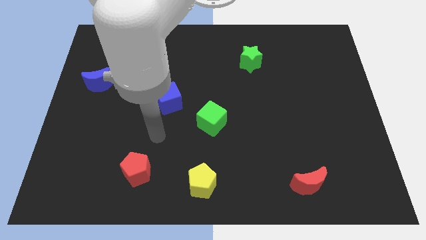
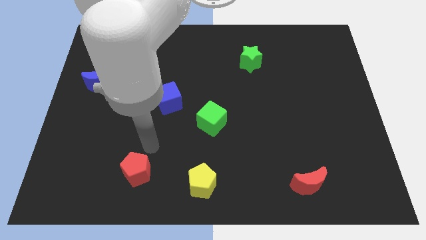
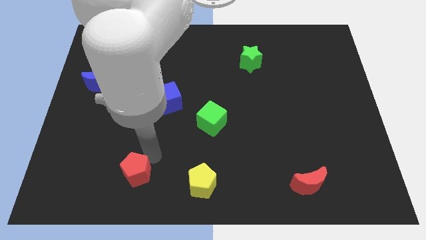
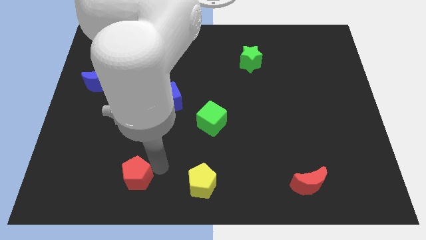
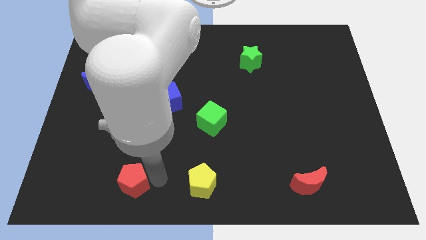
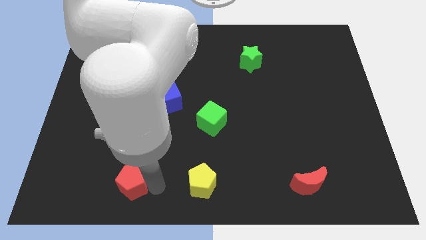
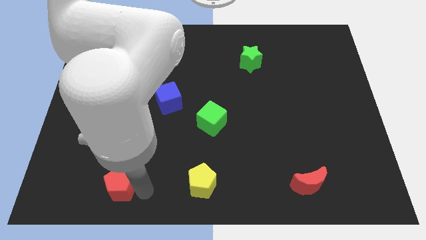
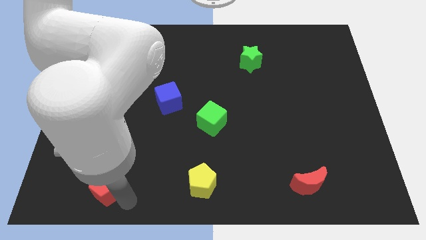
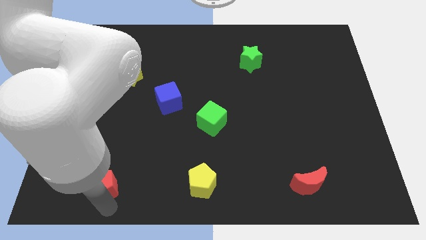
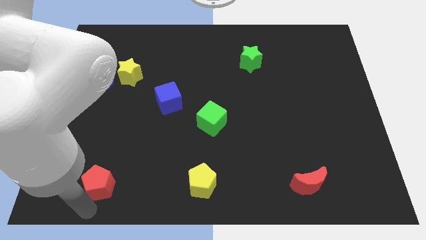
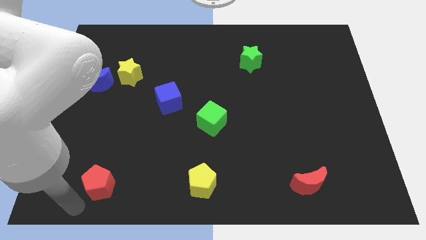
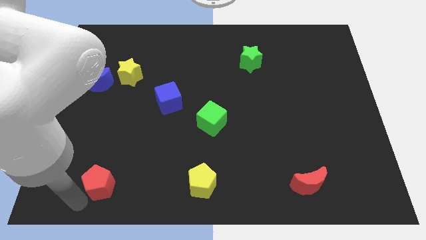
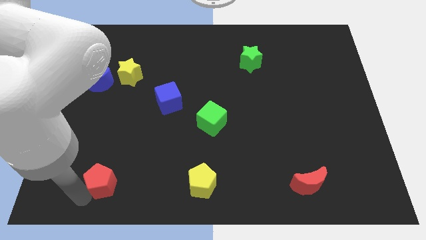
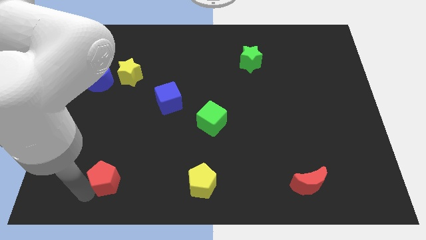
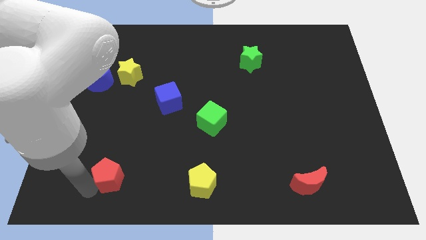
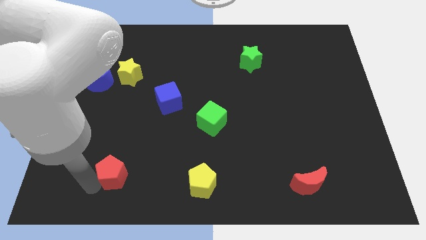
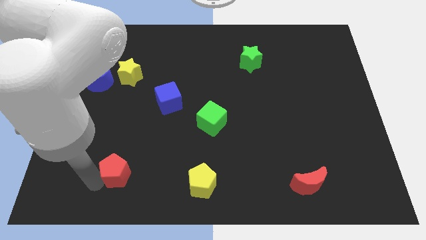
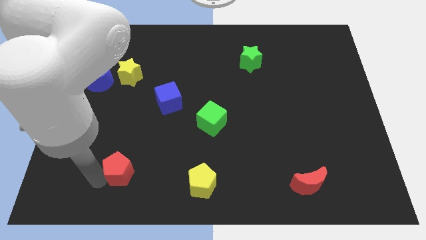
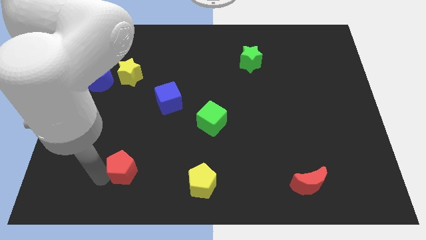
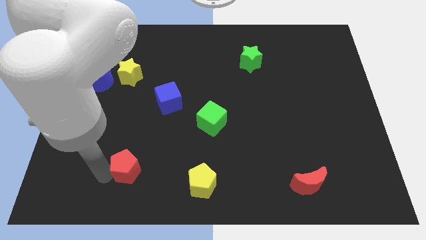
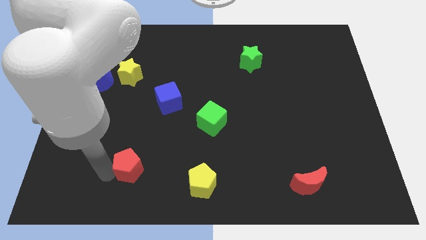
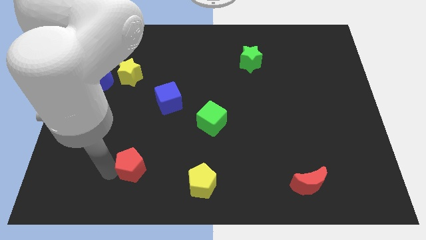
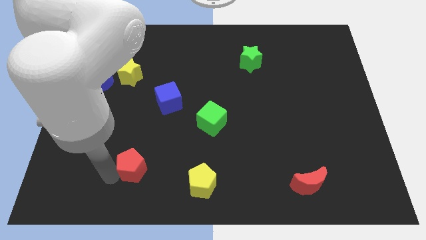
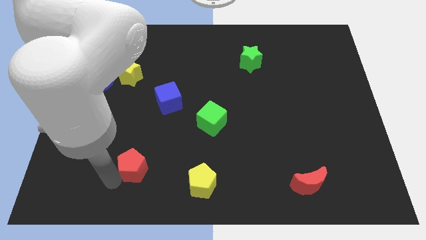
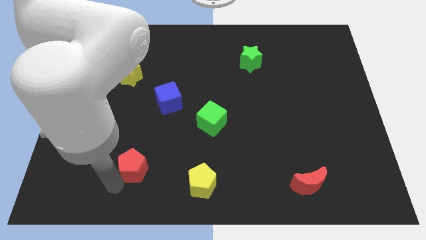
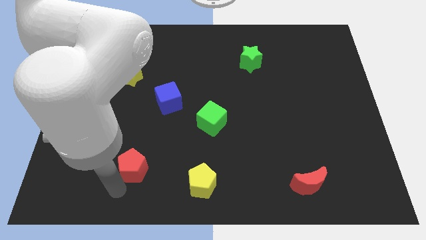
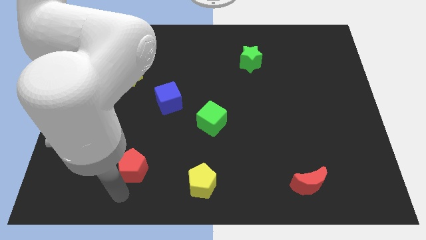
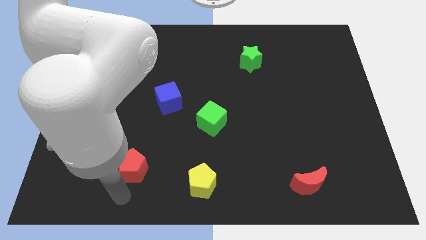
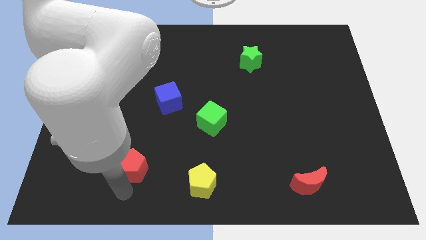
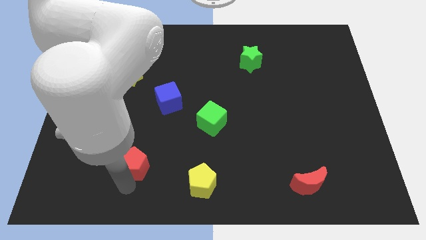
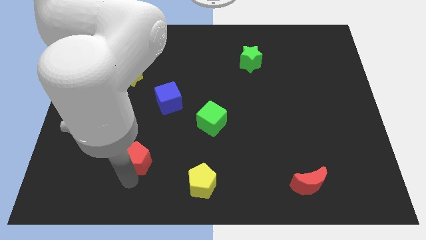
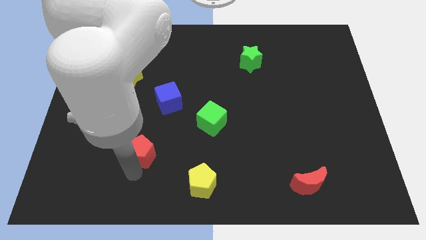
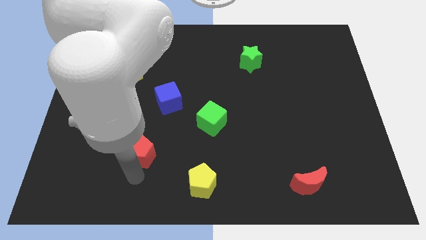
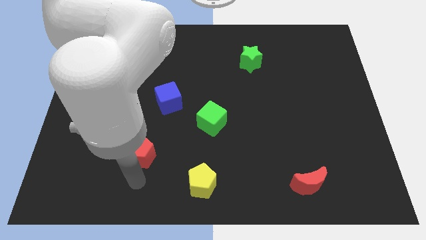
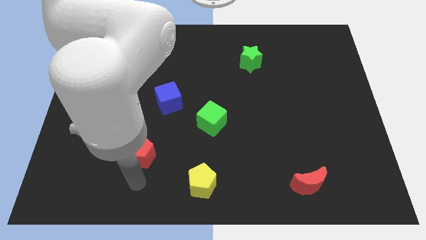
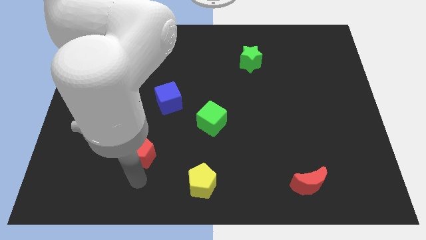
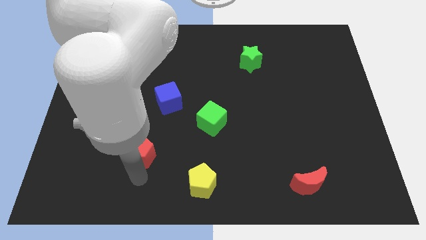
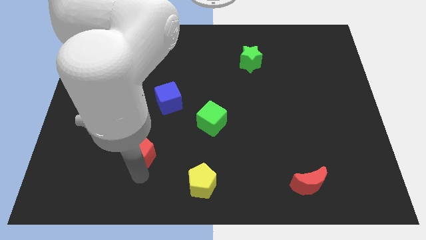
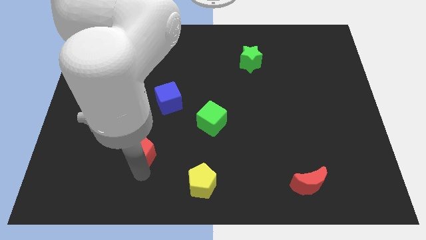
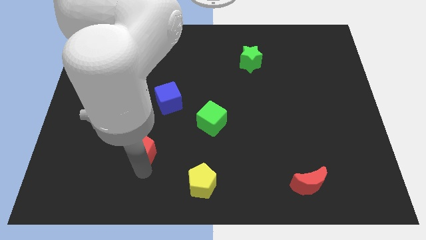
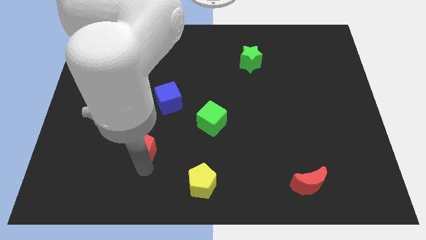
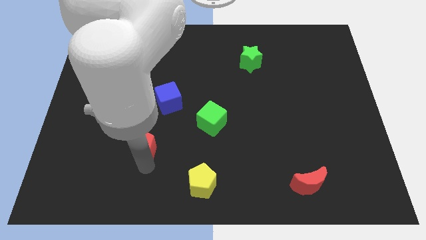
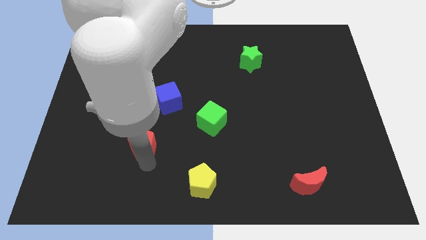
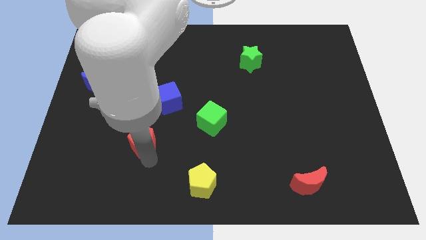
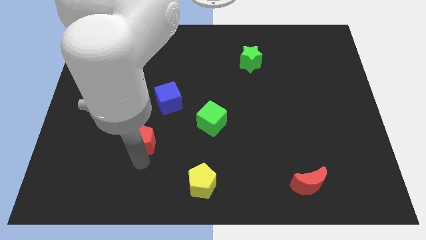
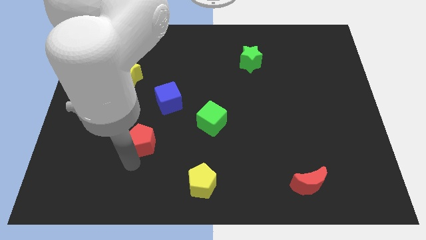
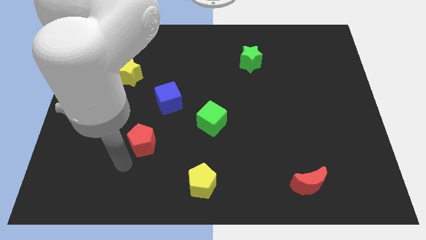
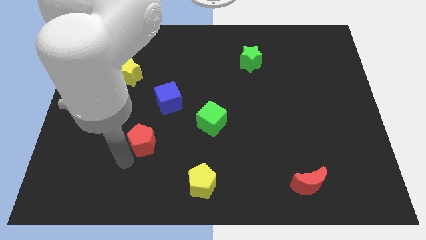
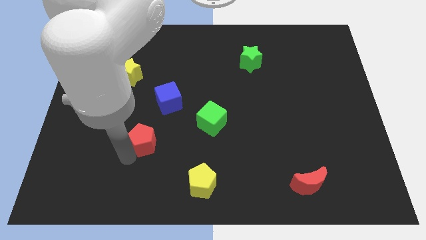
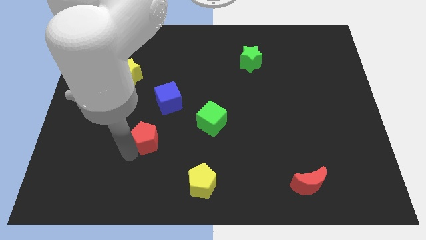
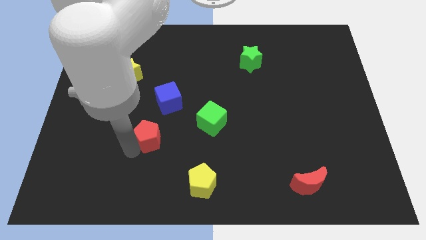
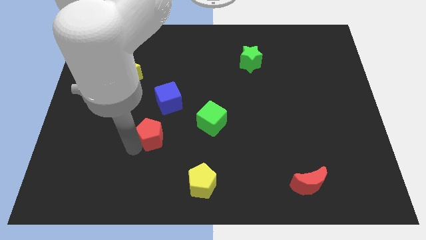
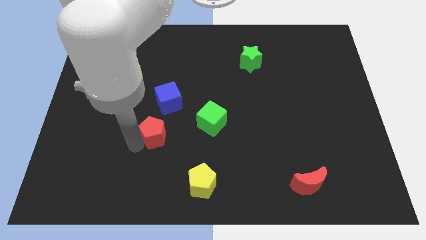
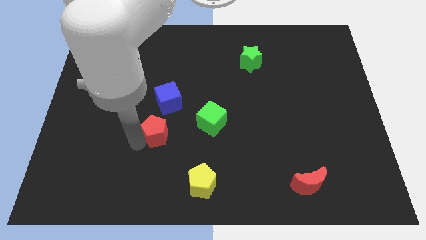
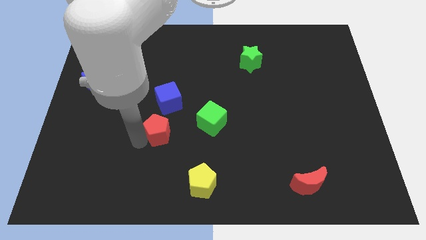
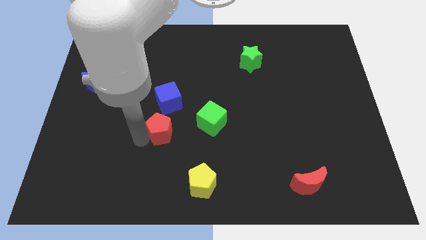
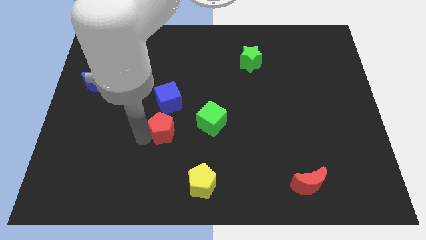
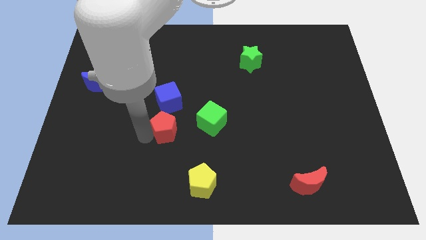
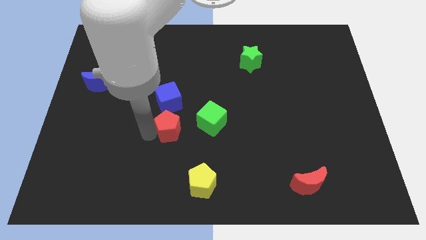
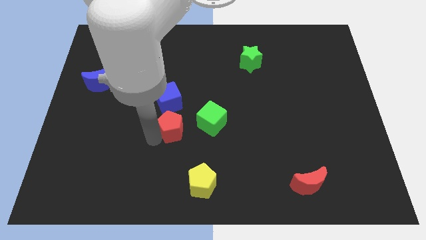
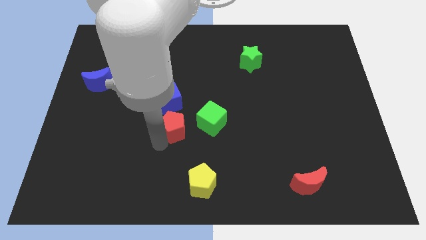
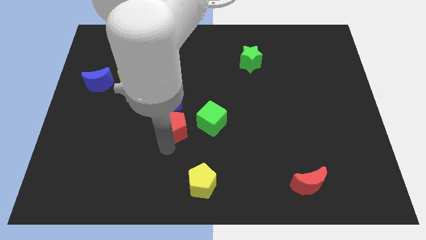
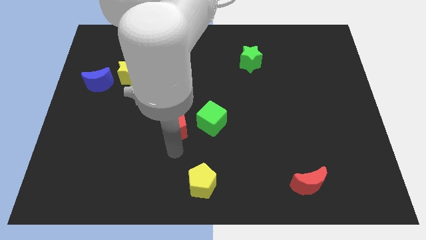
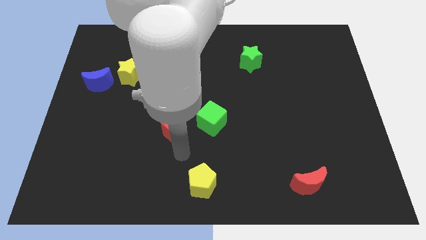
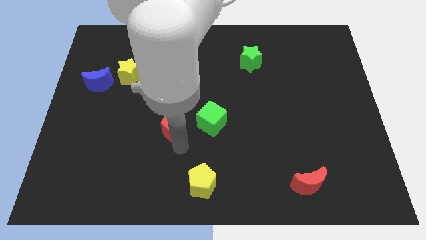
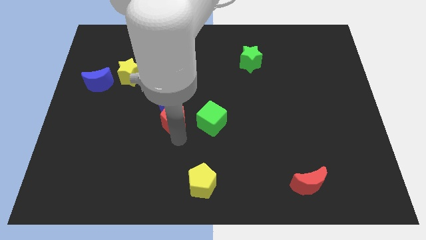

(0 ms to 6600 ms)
move the red pentagon towards the blue cube

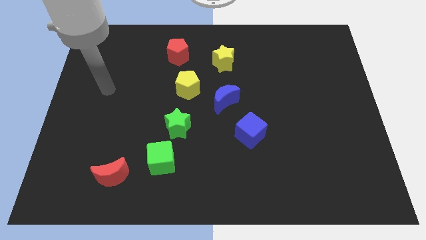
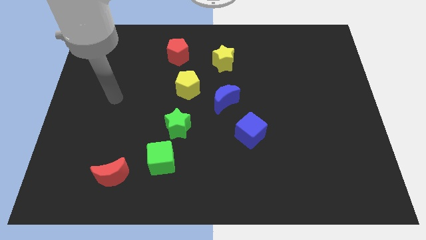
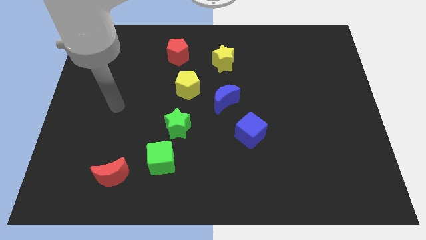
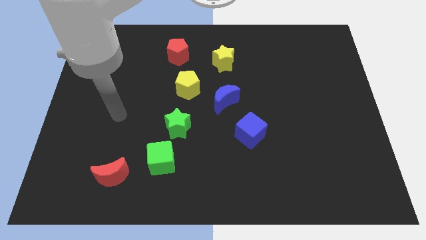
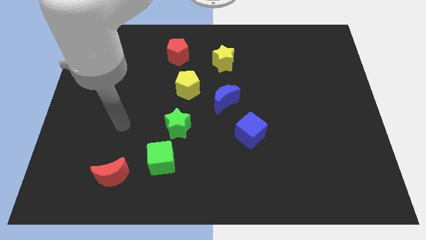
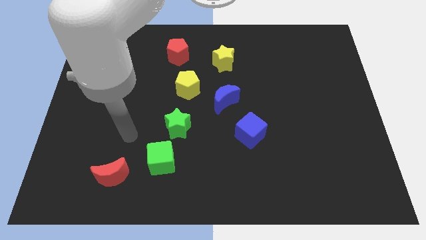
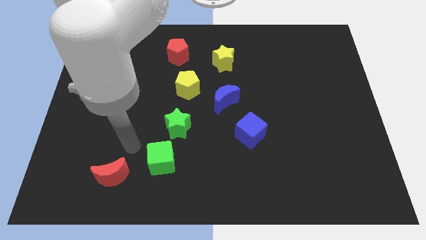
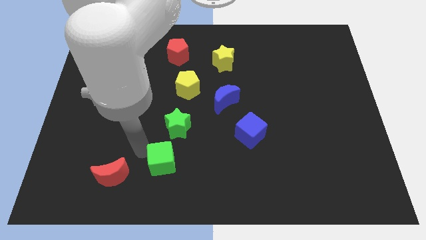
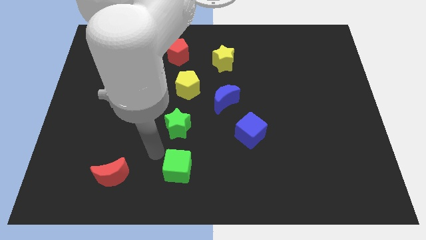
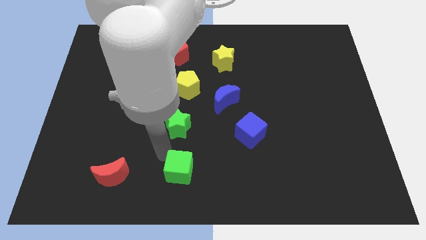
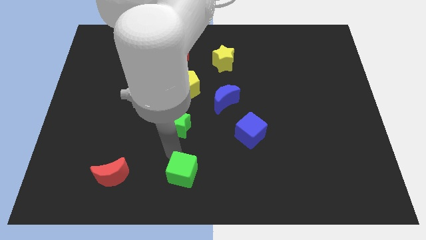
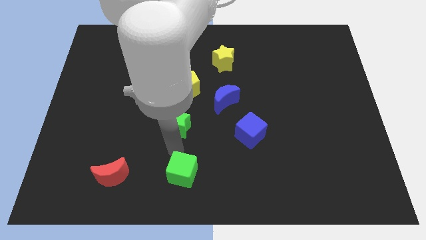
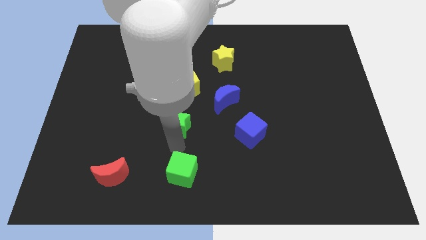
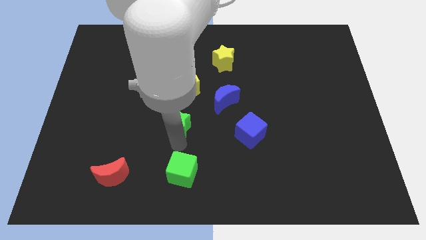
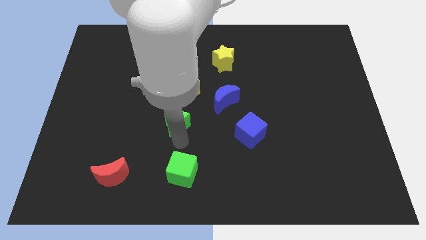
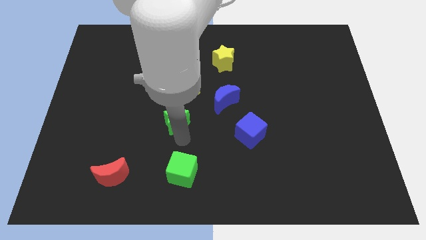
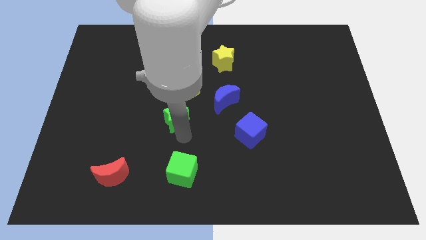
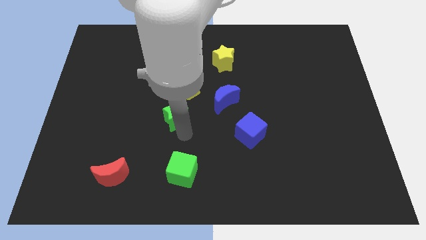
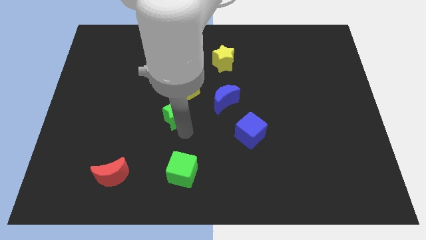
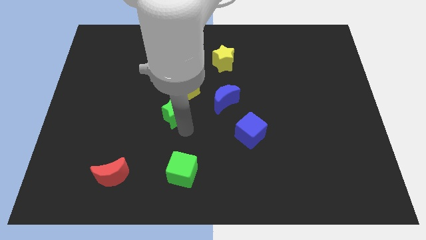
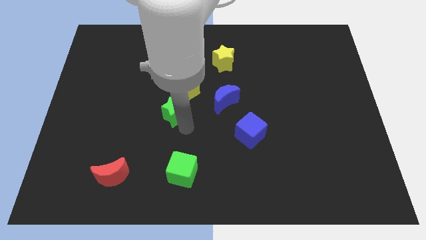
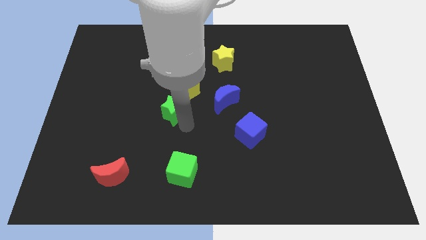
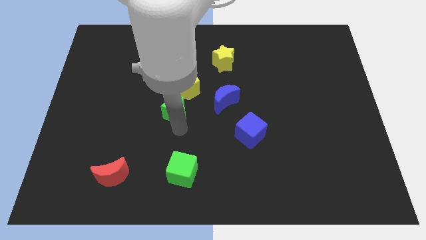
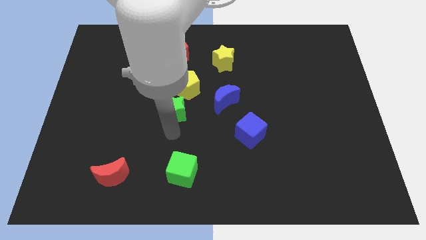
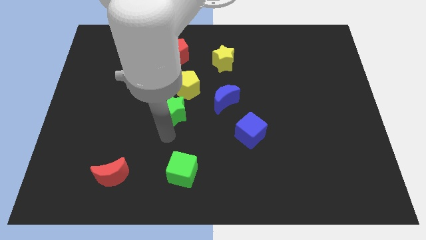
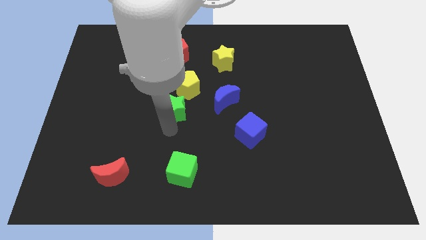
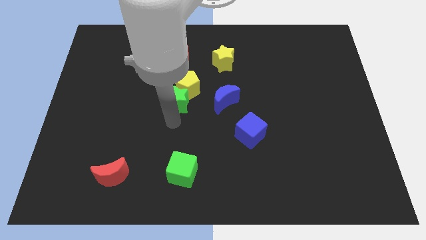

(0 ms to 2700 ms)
slide the green star to the yellow pentagon
